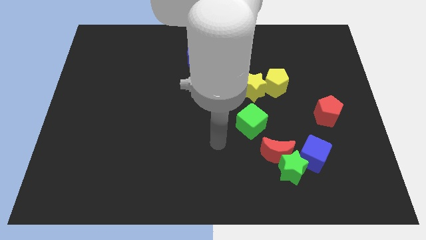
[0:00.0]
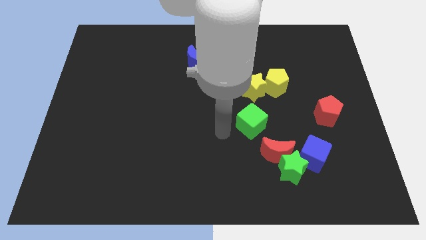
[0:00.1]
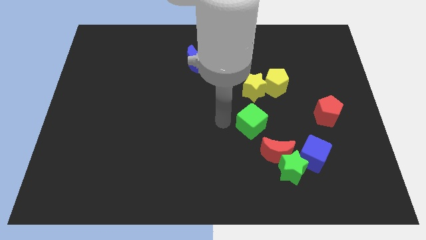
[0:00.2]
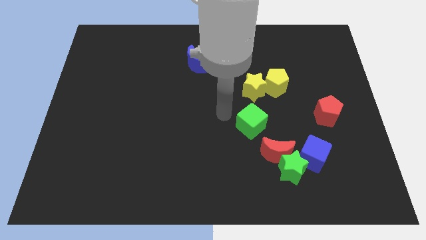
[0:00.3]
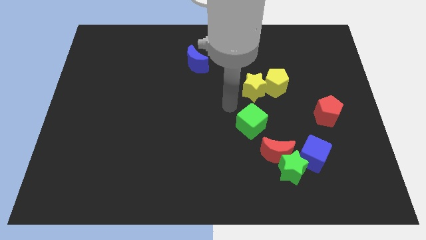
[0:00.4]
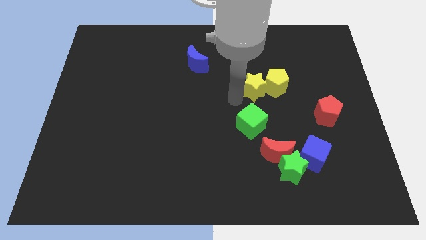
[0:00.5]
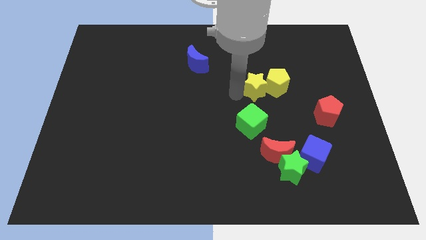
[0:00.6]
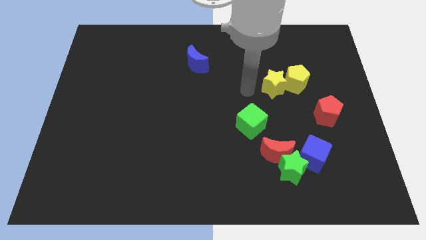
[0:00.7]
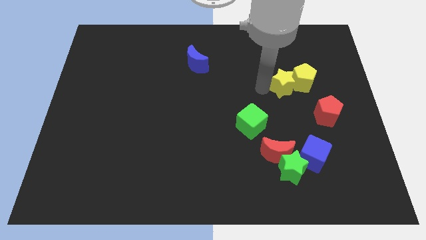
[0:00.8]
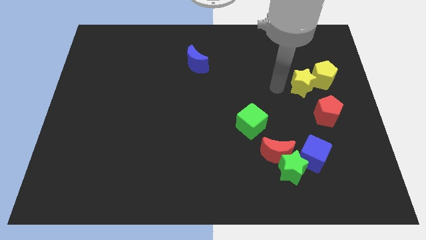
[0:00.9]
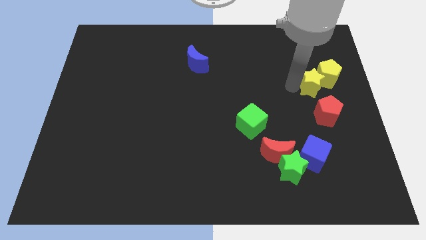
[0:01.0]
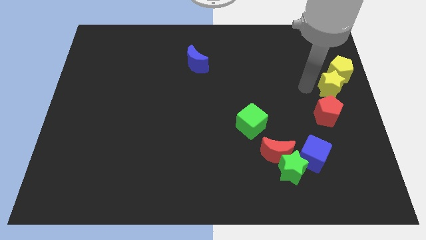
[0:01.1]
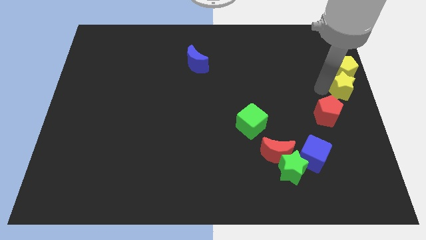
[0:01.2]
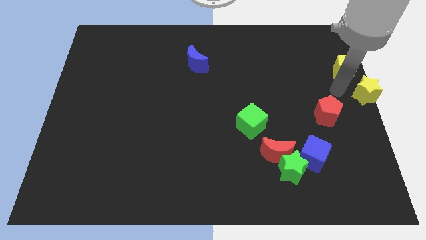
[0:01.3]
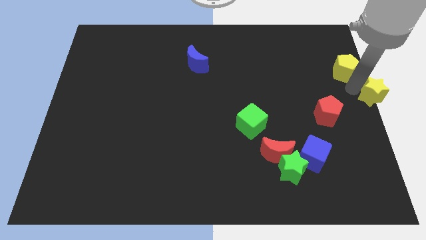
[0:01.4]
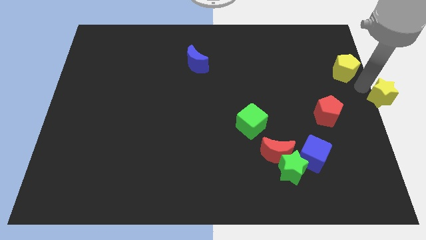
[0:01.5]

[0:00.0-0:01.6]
pull the yellow pentagon apart from the yellow star

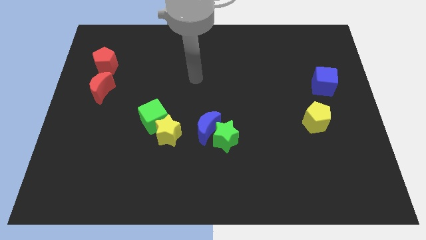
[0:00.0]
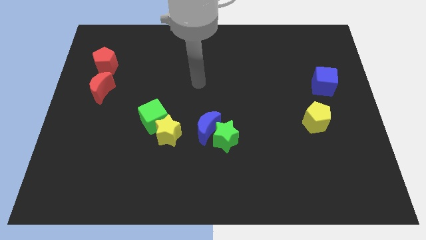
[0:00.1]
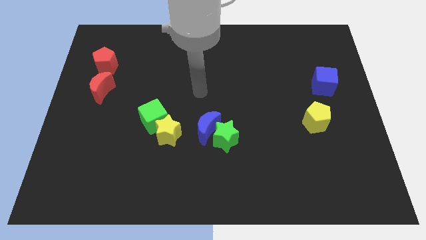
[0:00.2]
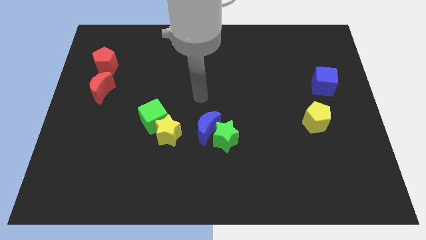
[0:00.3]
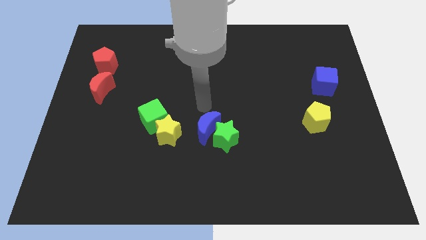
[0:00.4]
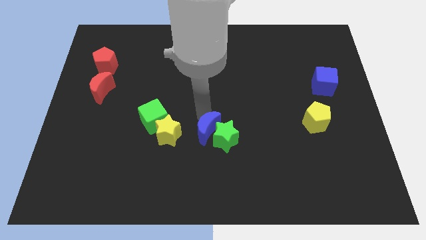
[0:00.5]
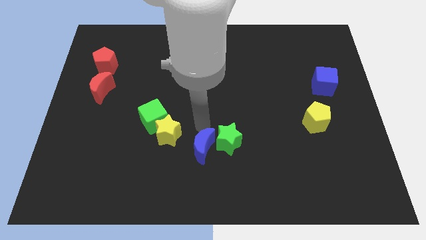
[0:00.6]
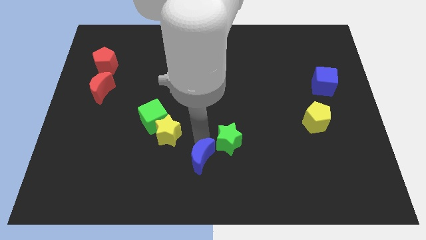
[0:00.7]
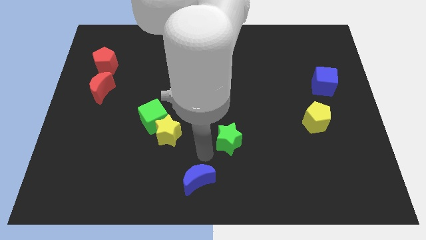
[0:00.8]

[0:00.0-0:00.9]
separate the green star from the blue moon

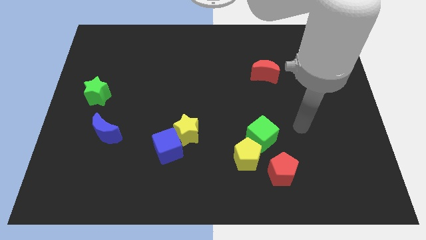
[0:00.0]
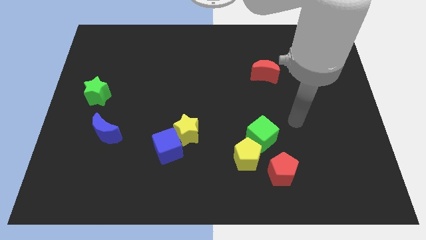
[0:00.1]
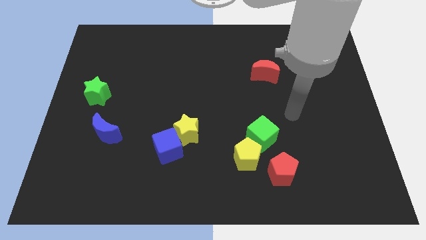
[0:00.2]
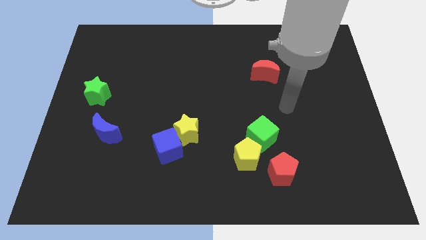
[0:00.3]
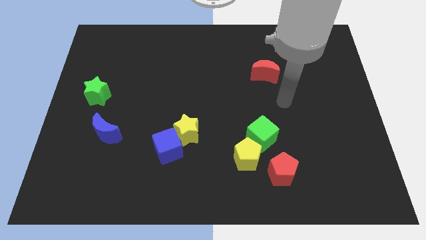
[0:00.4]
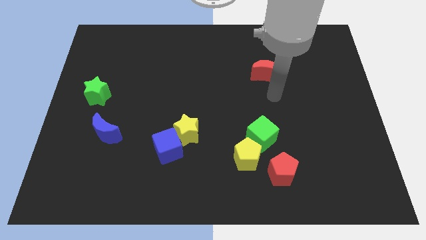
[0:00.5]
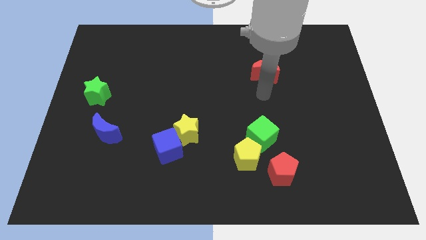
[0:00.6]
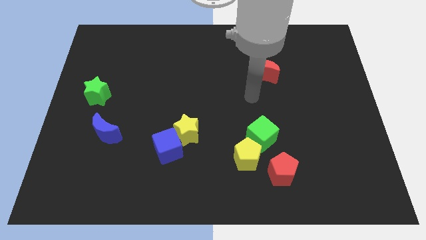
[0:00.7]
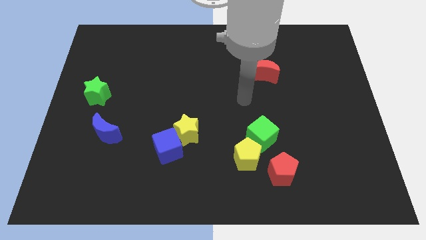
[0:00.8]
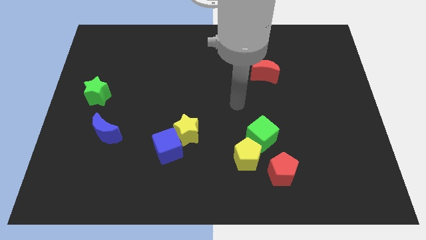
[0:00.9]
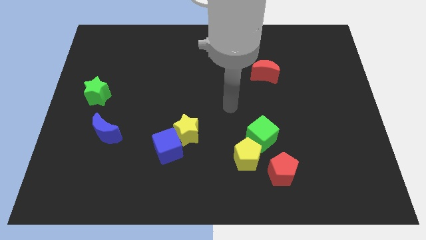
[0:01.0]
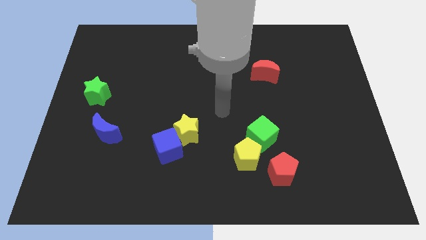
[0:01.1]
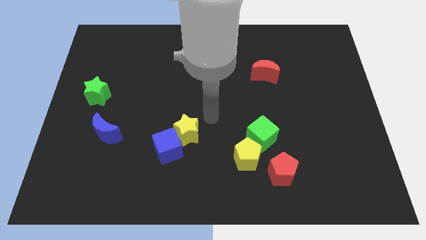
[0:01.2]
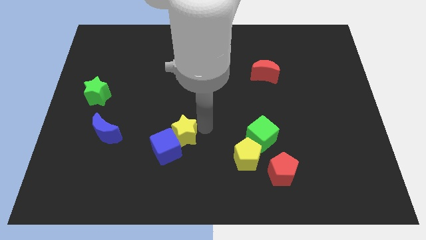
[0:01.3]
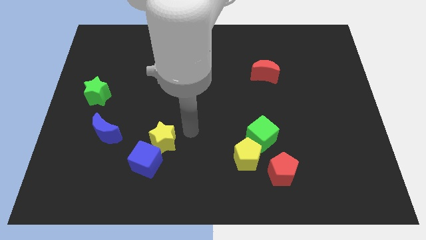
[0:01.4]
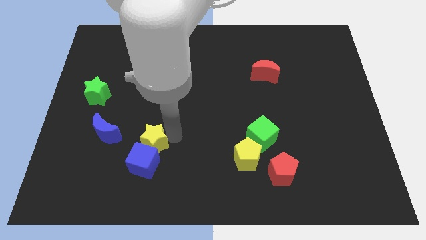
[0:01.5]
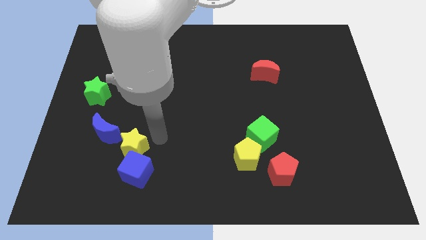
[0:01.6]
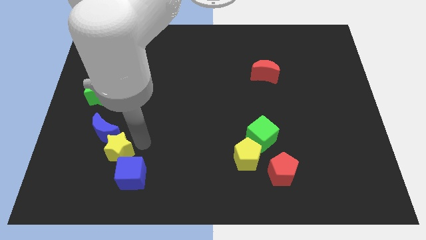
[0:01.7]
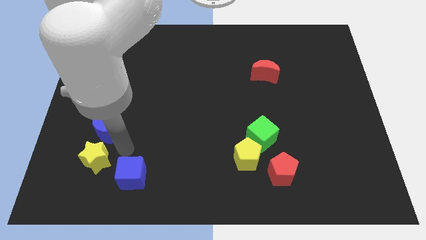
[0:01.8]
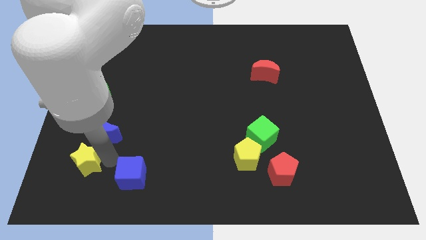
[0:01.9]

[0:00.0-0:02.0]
pull the blue cube apart from the yellow star

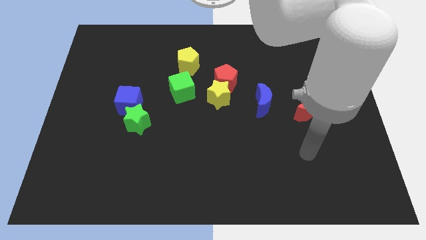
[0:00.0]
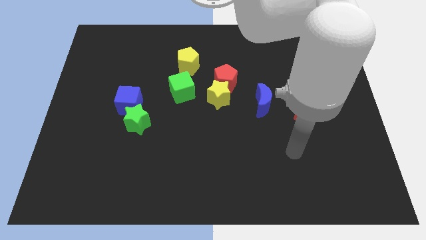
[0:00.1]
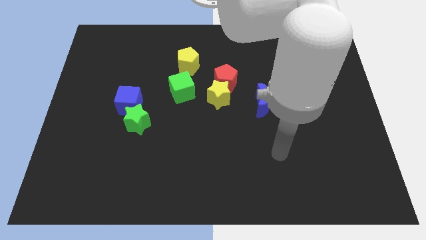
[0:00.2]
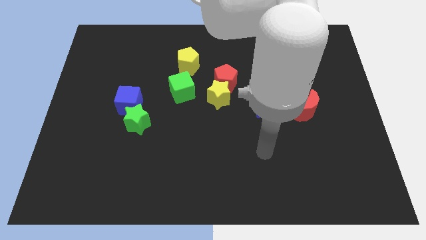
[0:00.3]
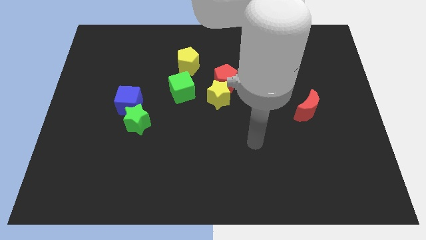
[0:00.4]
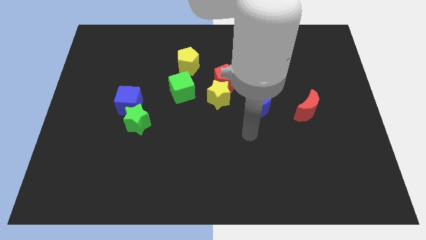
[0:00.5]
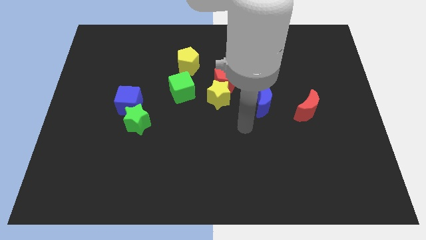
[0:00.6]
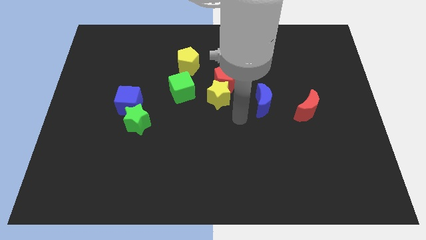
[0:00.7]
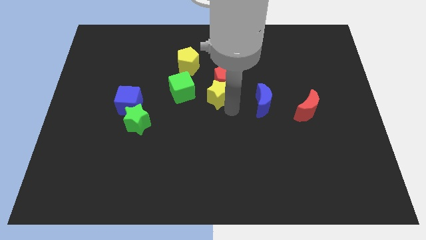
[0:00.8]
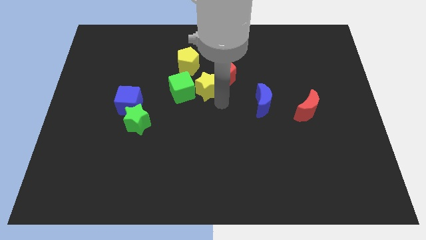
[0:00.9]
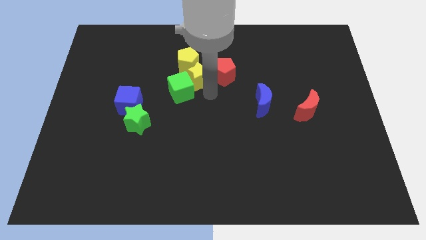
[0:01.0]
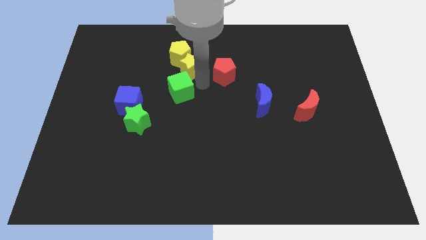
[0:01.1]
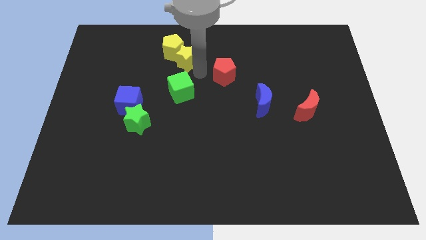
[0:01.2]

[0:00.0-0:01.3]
move the red pentagon away from the yellow star

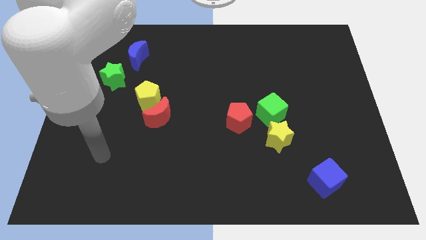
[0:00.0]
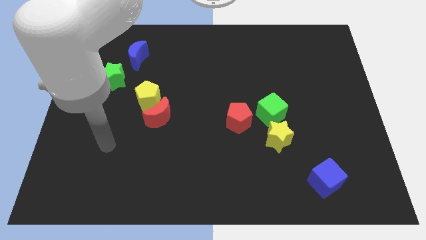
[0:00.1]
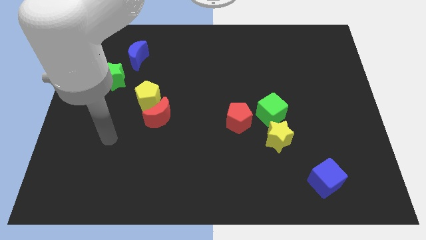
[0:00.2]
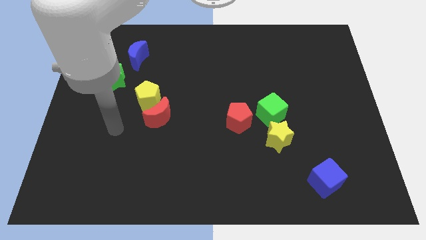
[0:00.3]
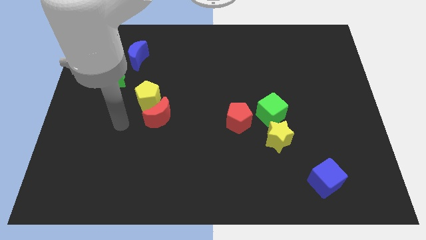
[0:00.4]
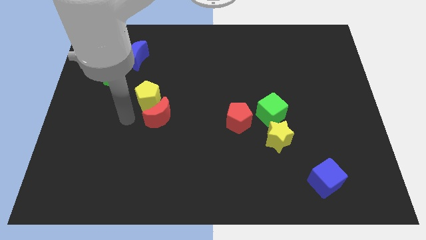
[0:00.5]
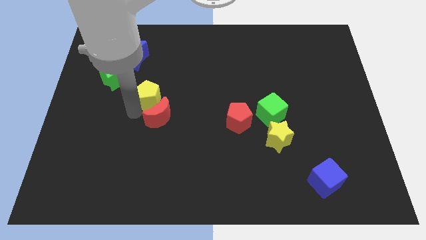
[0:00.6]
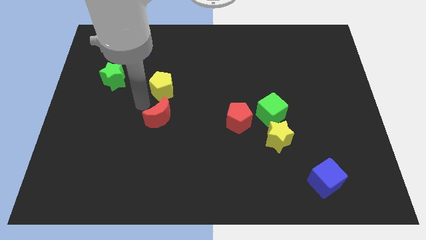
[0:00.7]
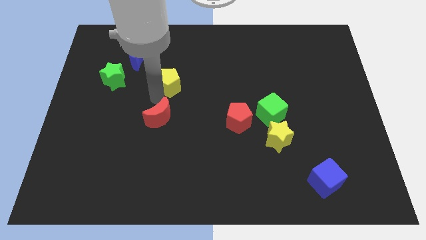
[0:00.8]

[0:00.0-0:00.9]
move the red moon away from the yellow pentagon

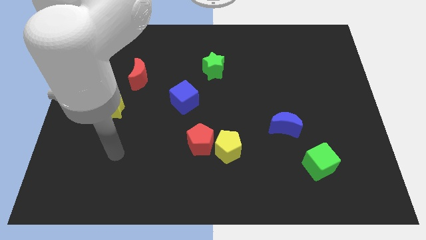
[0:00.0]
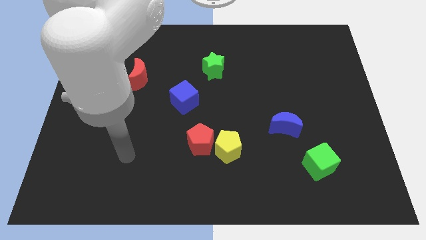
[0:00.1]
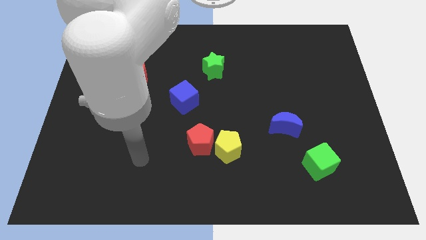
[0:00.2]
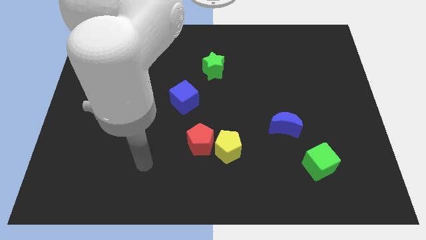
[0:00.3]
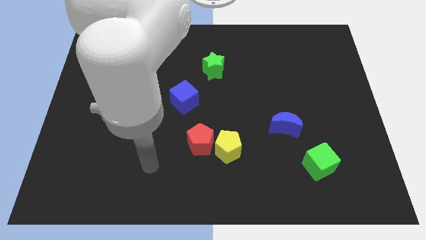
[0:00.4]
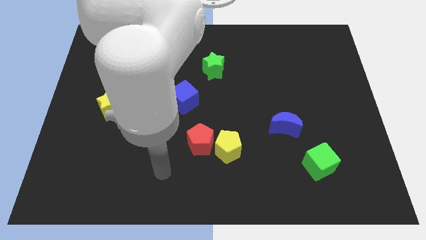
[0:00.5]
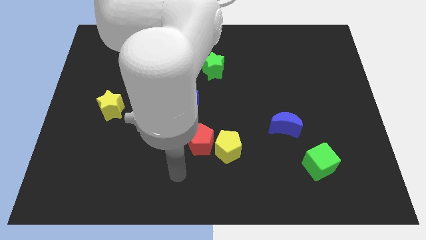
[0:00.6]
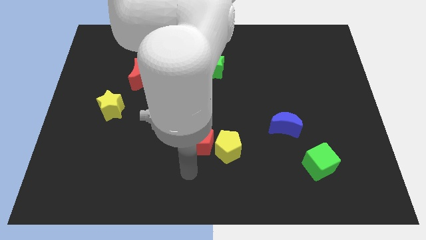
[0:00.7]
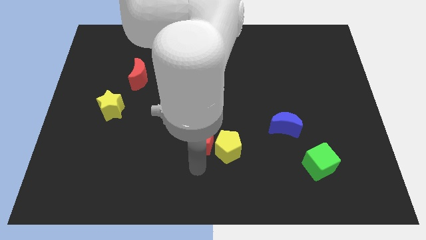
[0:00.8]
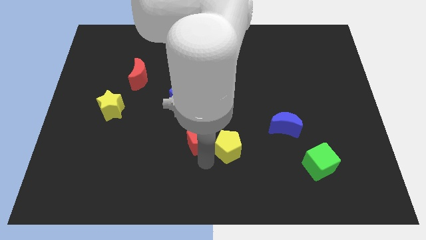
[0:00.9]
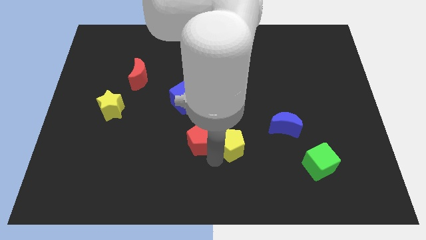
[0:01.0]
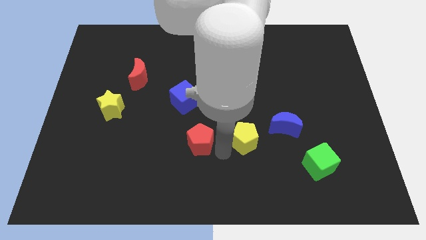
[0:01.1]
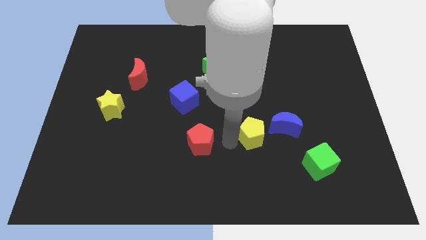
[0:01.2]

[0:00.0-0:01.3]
pull the red pentagon apart from the yellow pentagon

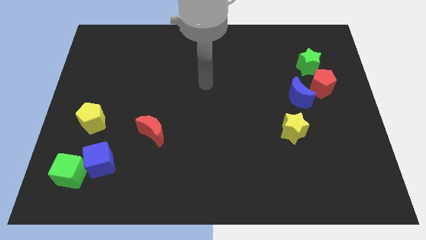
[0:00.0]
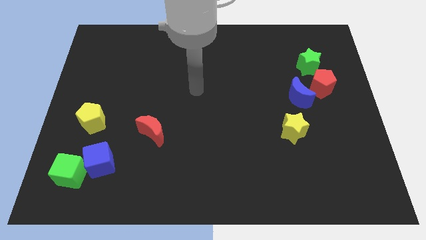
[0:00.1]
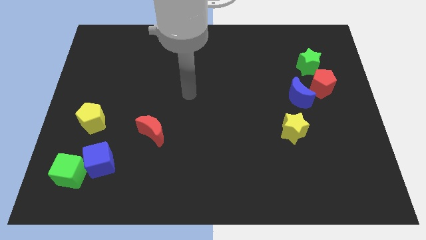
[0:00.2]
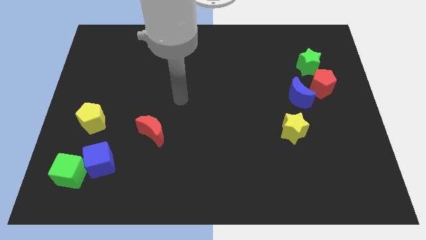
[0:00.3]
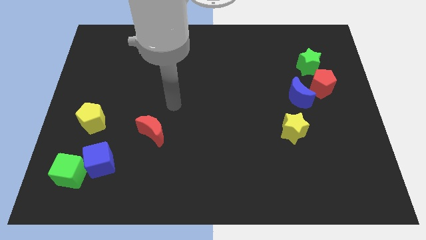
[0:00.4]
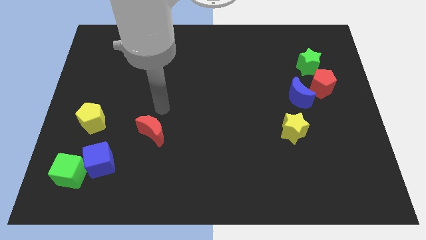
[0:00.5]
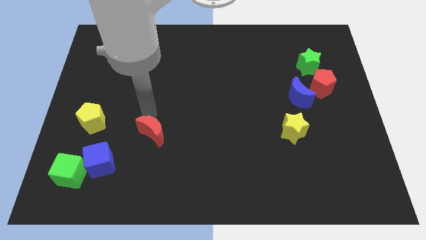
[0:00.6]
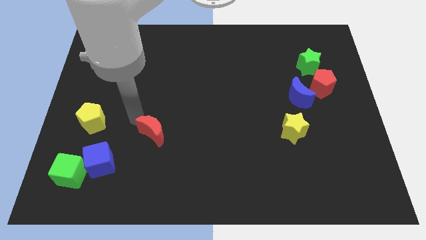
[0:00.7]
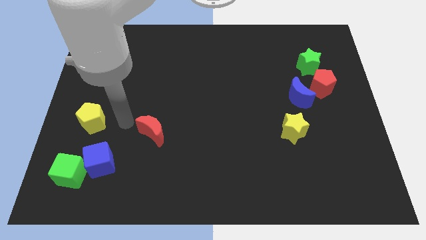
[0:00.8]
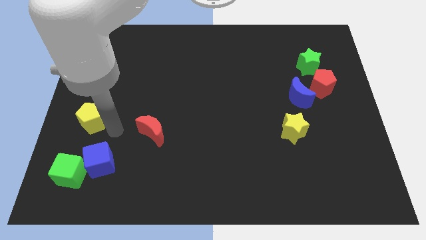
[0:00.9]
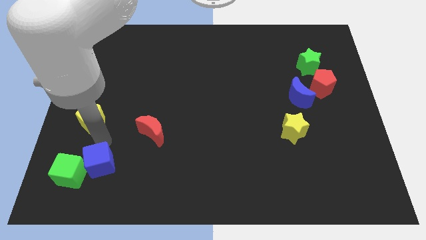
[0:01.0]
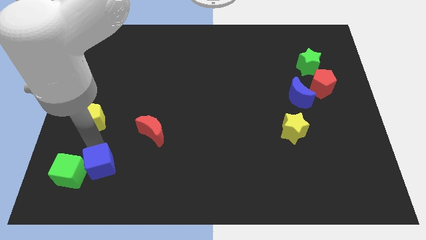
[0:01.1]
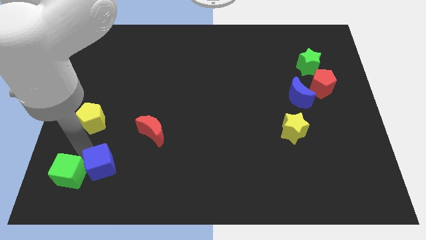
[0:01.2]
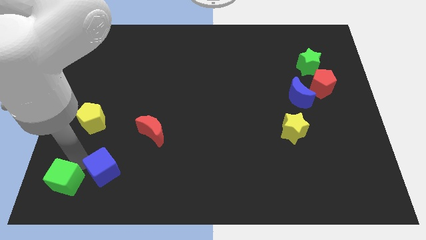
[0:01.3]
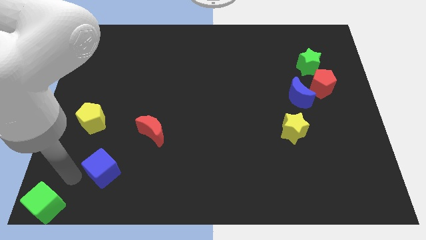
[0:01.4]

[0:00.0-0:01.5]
pull the blue cube apart from the green cube
